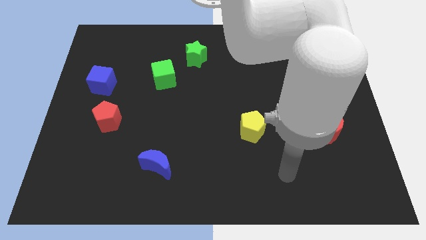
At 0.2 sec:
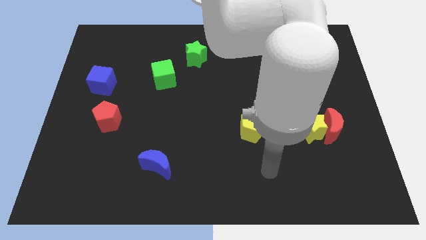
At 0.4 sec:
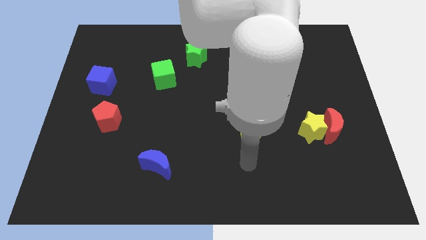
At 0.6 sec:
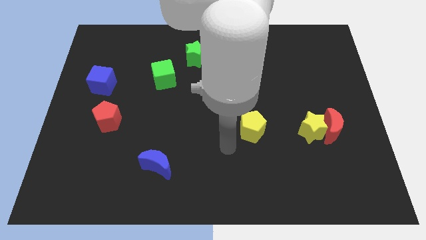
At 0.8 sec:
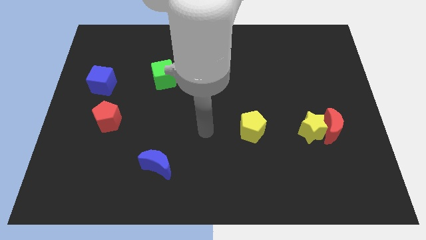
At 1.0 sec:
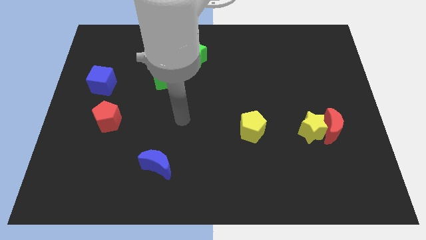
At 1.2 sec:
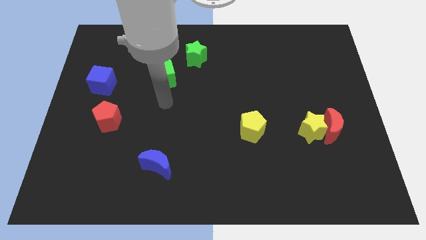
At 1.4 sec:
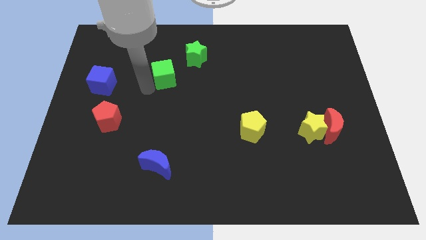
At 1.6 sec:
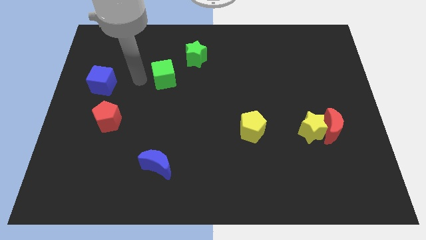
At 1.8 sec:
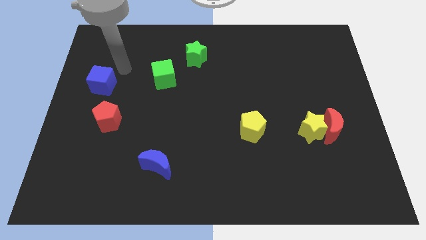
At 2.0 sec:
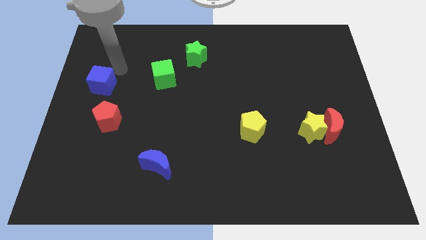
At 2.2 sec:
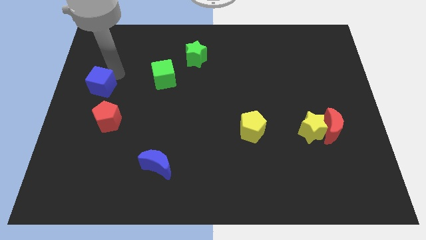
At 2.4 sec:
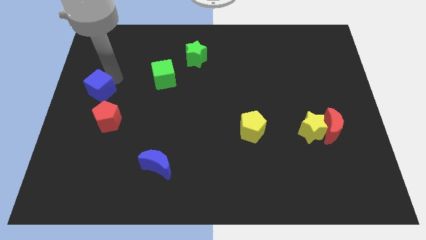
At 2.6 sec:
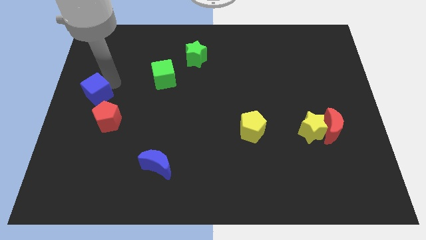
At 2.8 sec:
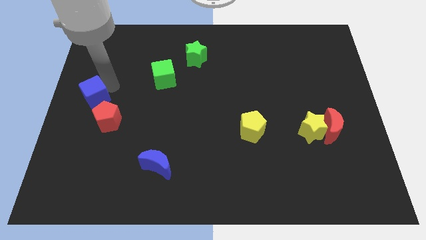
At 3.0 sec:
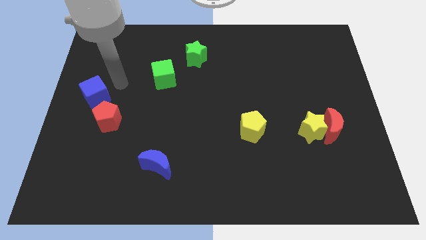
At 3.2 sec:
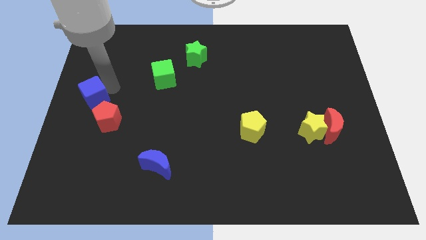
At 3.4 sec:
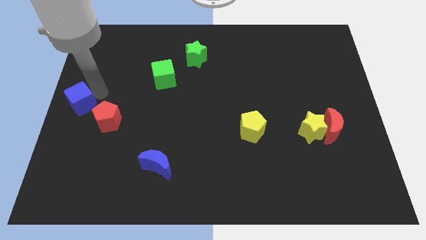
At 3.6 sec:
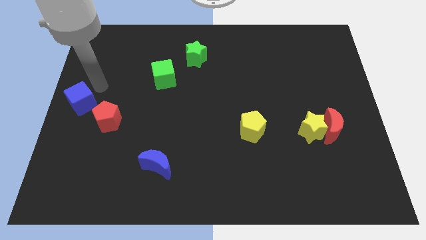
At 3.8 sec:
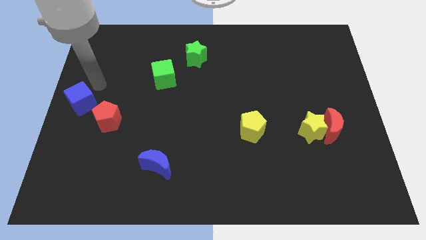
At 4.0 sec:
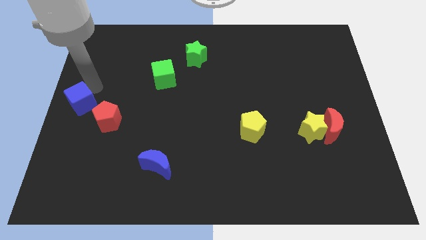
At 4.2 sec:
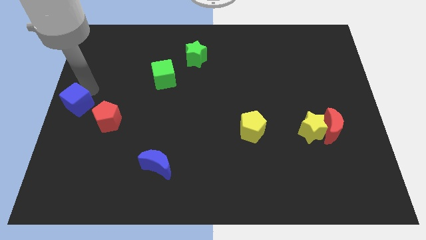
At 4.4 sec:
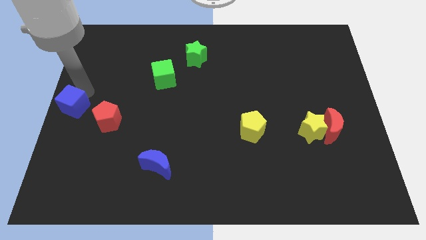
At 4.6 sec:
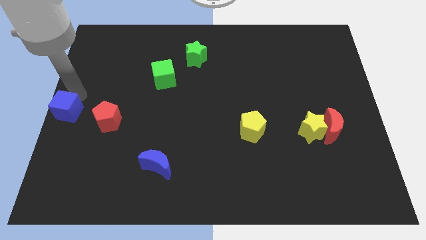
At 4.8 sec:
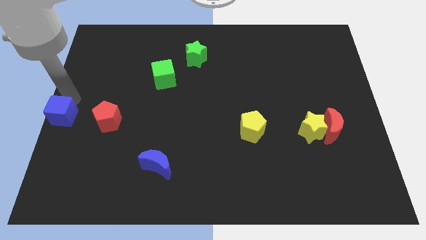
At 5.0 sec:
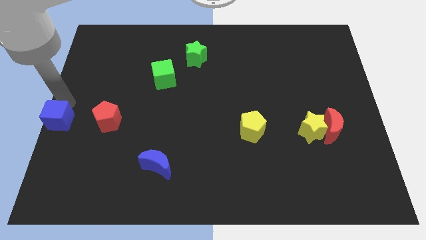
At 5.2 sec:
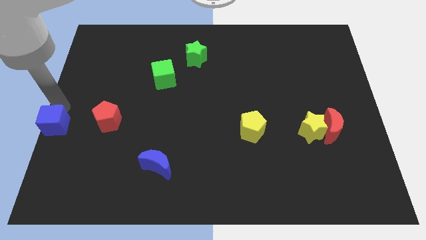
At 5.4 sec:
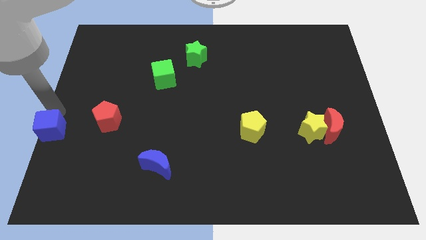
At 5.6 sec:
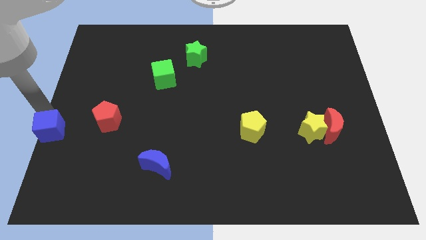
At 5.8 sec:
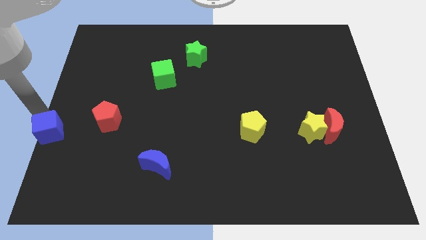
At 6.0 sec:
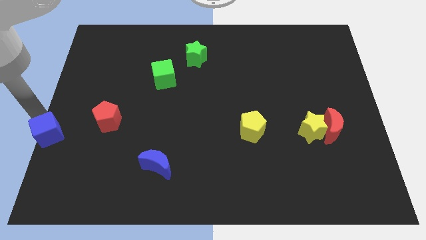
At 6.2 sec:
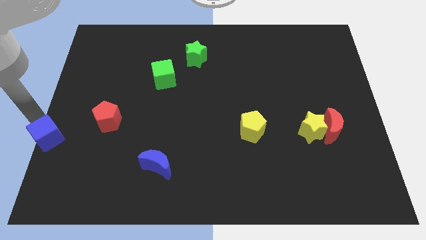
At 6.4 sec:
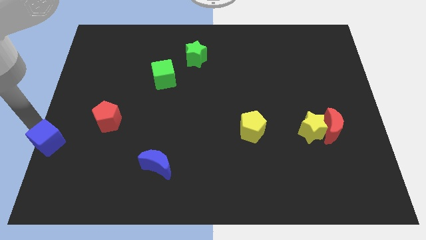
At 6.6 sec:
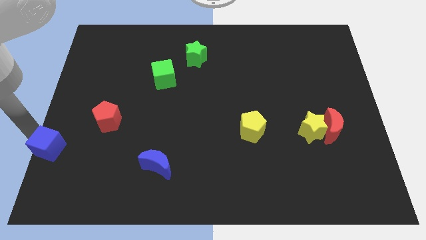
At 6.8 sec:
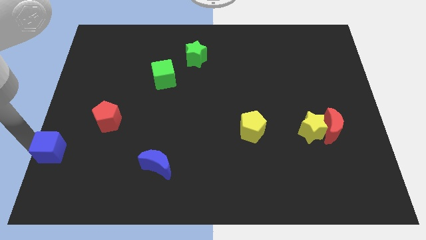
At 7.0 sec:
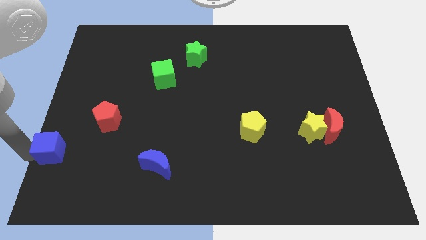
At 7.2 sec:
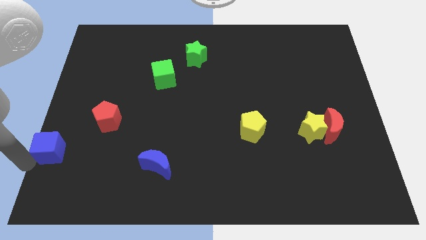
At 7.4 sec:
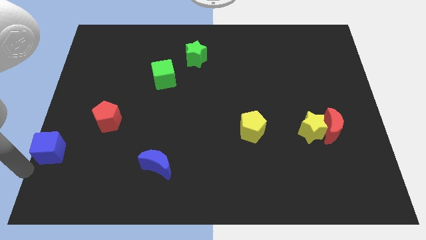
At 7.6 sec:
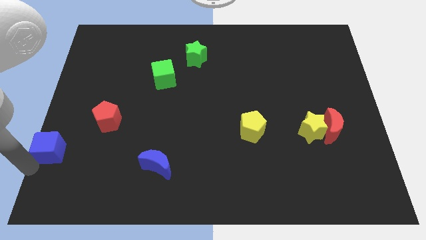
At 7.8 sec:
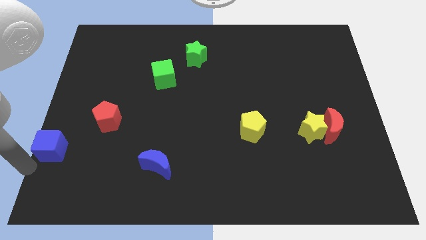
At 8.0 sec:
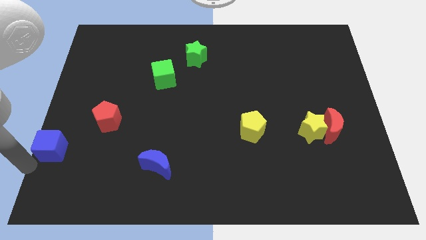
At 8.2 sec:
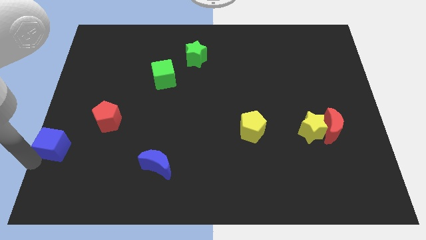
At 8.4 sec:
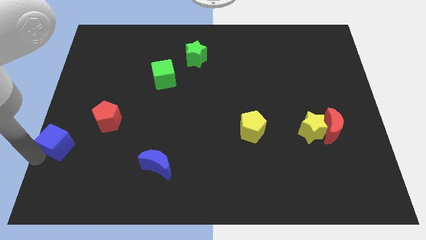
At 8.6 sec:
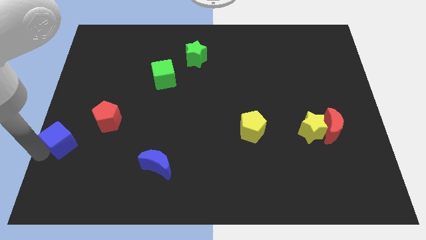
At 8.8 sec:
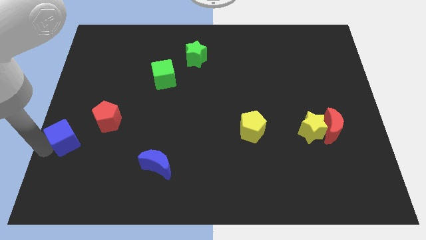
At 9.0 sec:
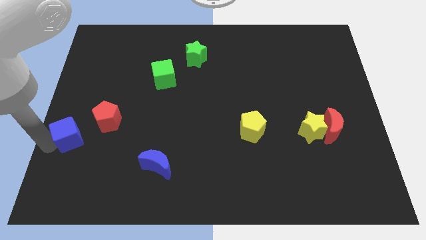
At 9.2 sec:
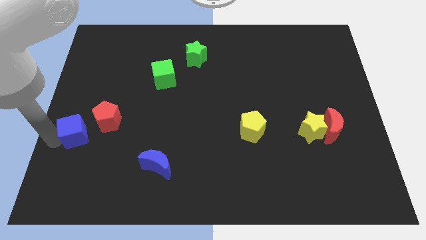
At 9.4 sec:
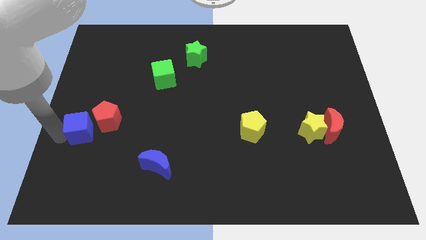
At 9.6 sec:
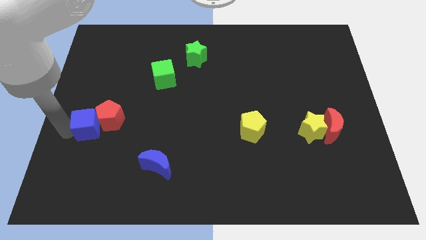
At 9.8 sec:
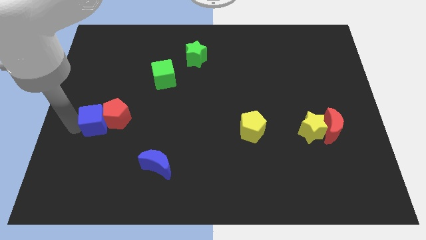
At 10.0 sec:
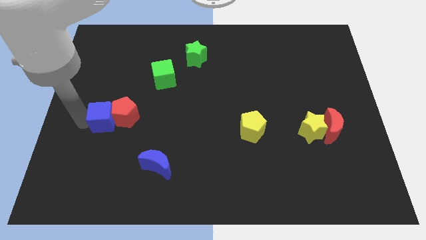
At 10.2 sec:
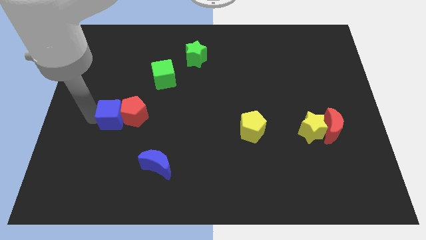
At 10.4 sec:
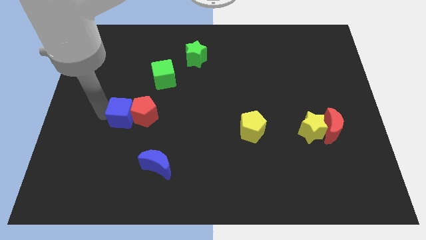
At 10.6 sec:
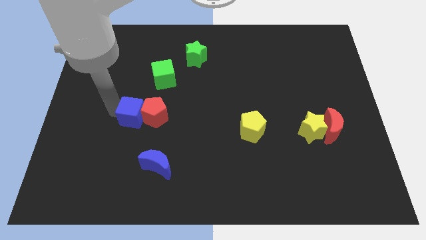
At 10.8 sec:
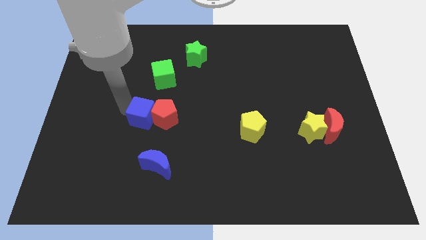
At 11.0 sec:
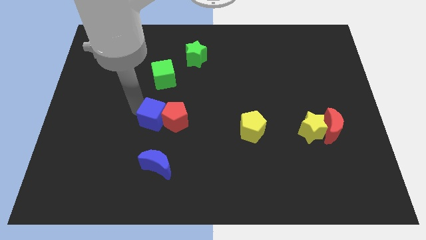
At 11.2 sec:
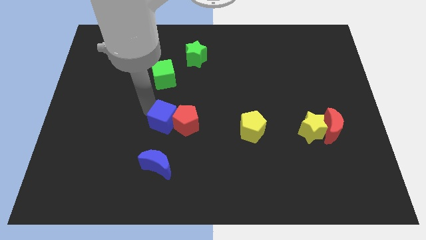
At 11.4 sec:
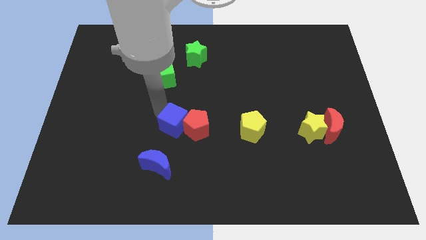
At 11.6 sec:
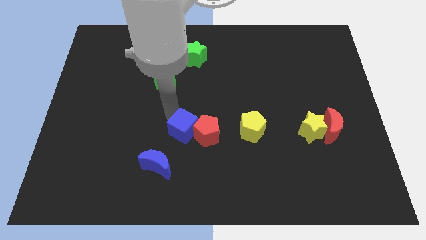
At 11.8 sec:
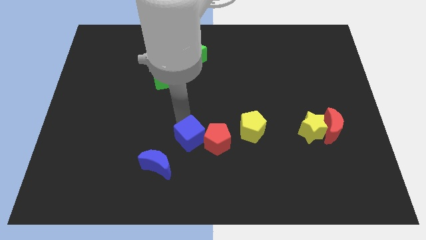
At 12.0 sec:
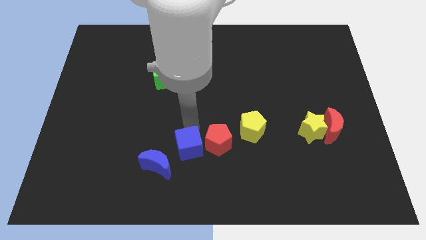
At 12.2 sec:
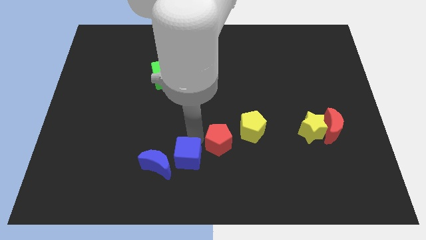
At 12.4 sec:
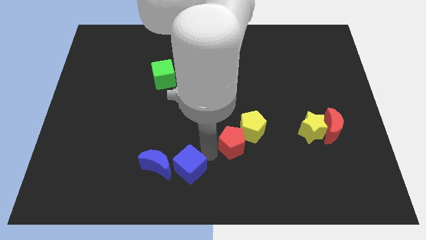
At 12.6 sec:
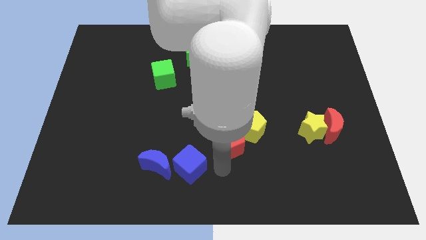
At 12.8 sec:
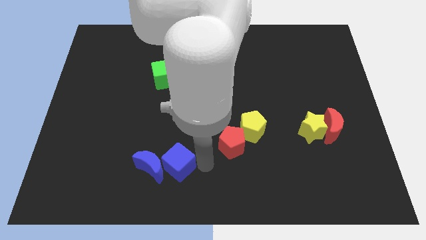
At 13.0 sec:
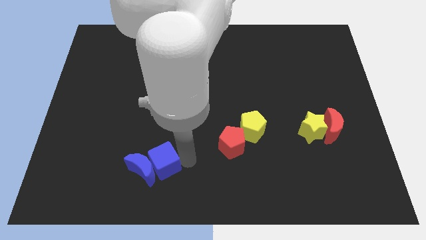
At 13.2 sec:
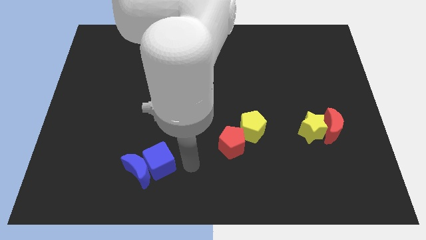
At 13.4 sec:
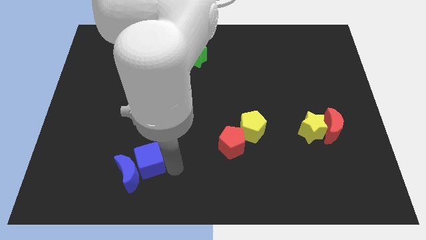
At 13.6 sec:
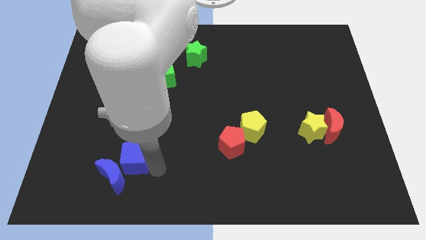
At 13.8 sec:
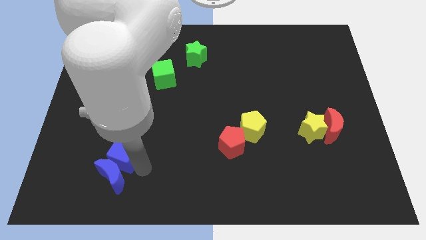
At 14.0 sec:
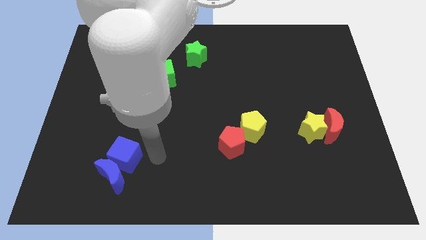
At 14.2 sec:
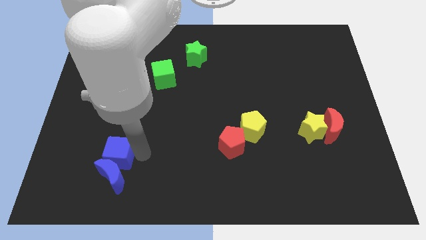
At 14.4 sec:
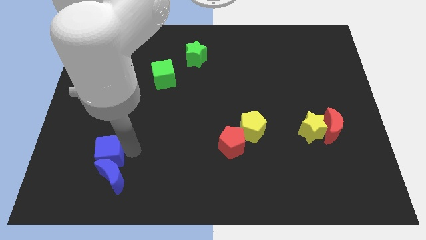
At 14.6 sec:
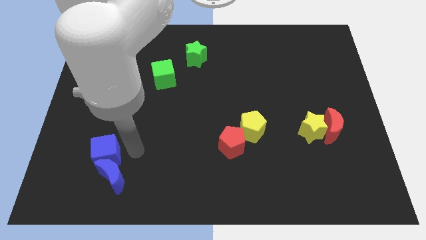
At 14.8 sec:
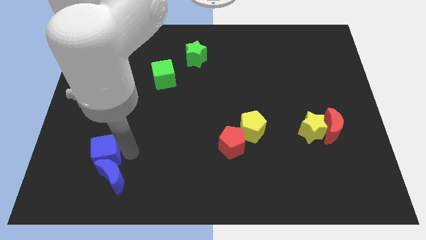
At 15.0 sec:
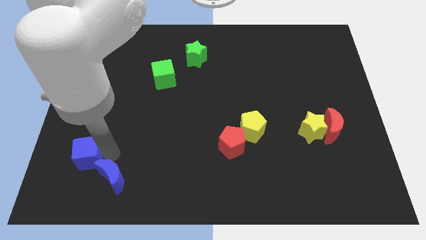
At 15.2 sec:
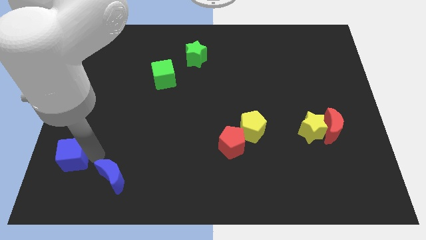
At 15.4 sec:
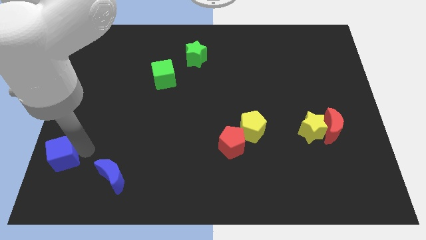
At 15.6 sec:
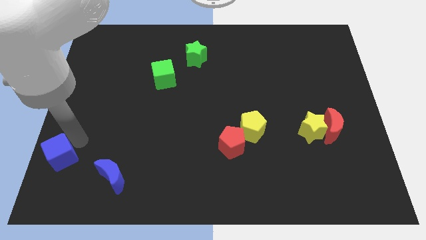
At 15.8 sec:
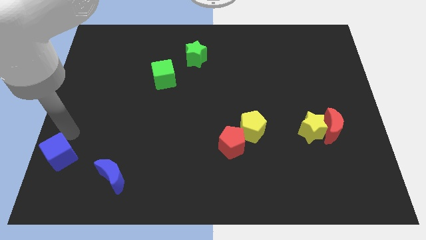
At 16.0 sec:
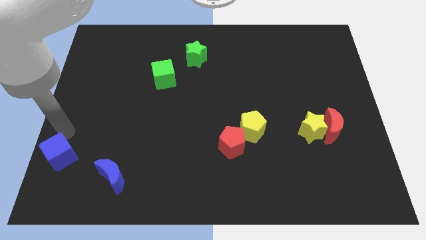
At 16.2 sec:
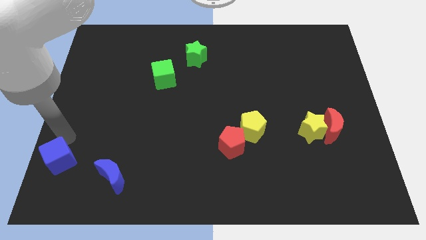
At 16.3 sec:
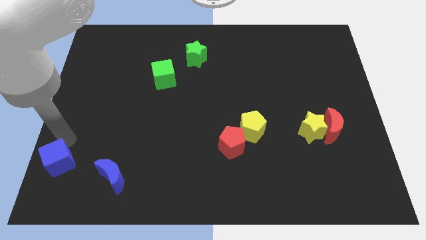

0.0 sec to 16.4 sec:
slide the blue cube to the lower left corner
